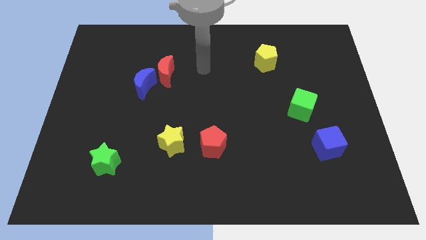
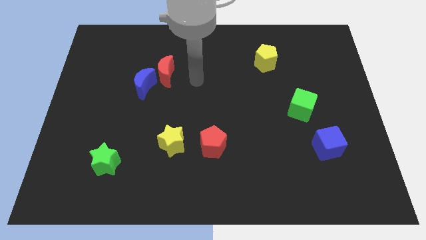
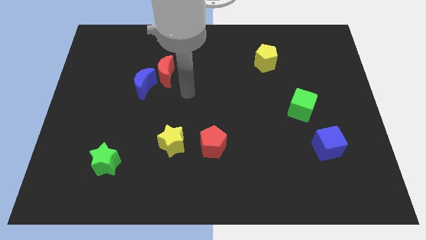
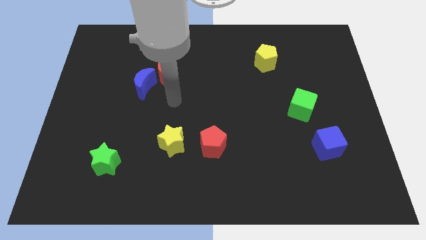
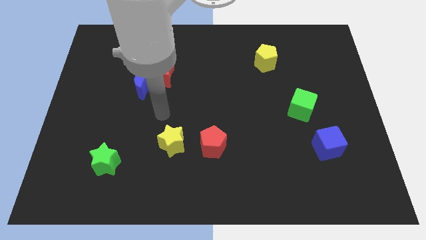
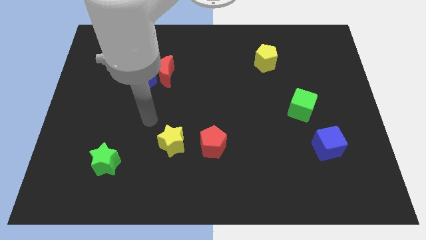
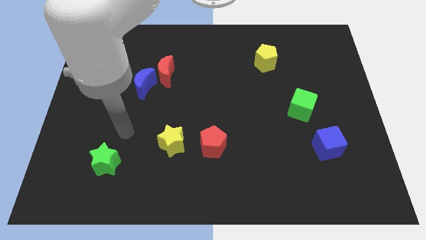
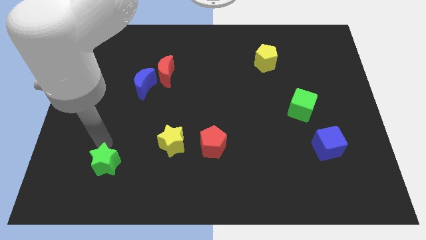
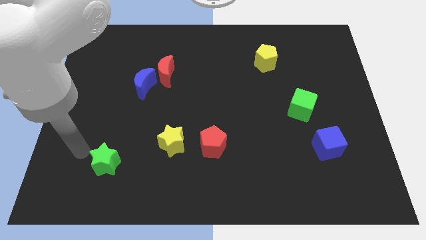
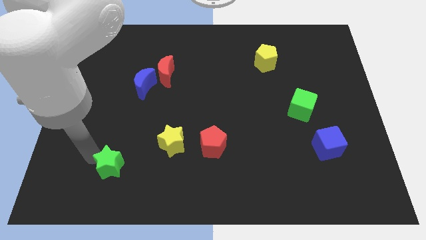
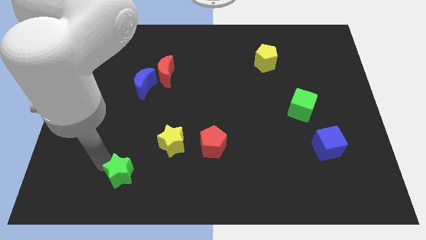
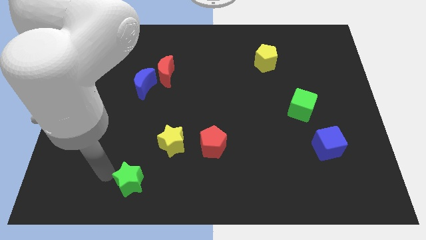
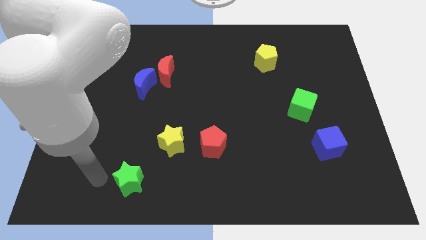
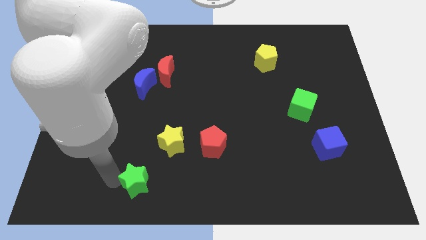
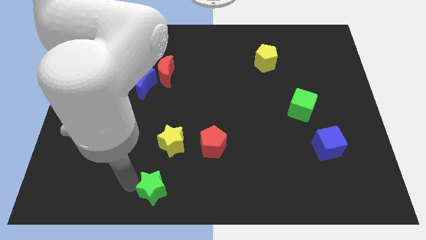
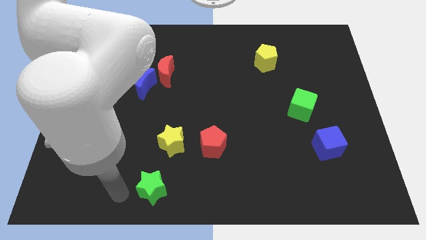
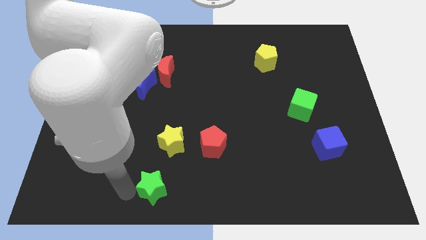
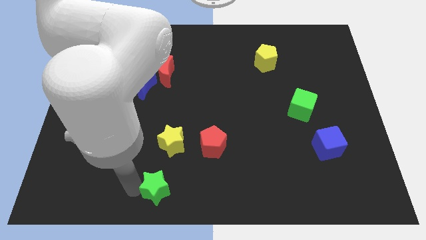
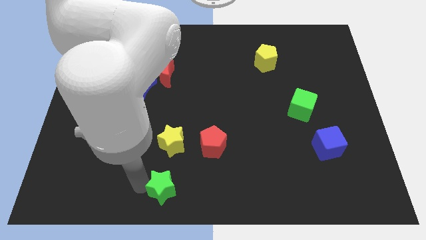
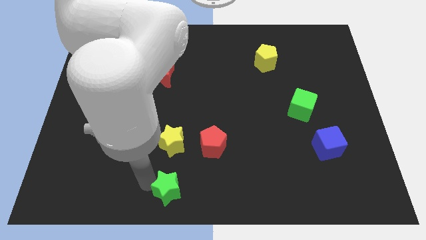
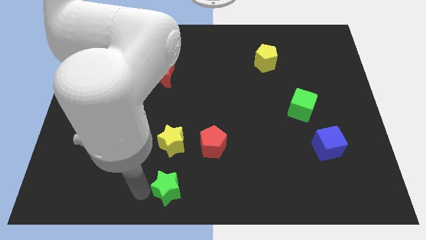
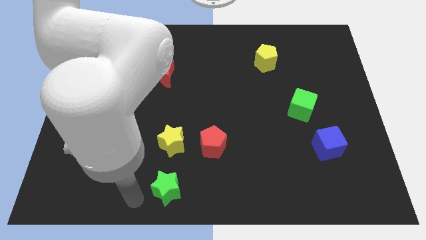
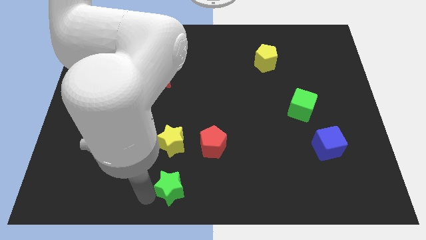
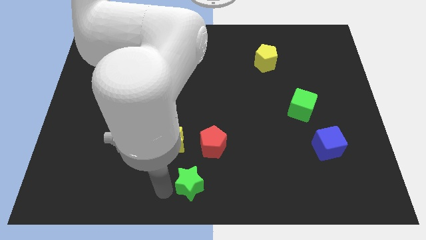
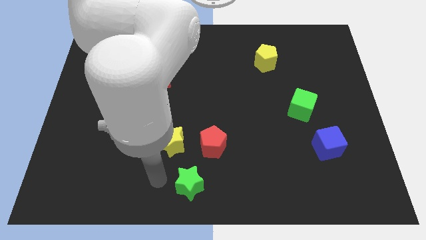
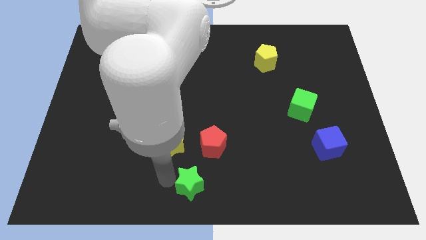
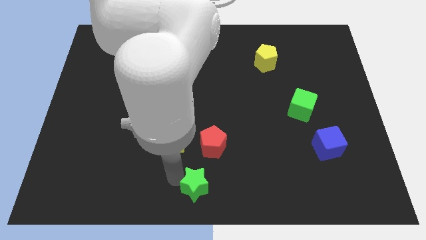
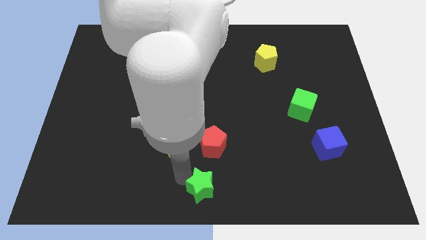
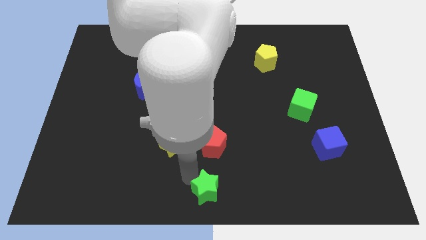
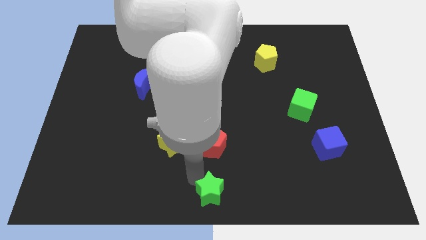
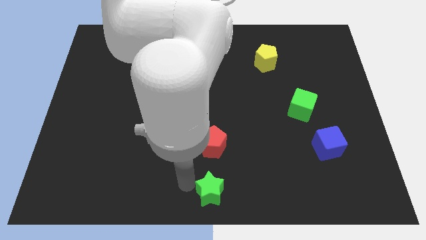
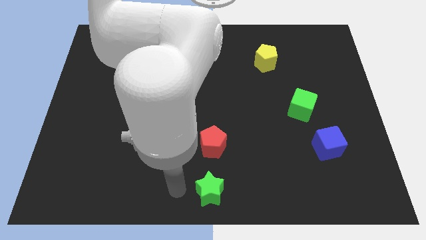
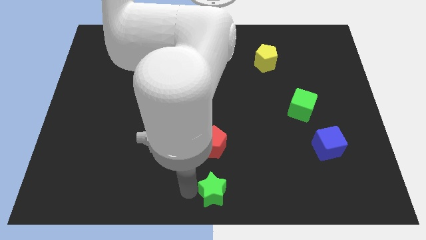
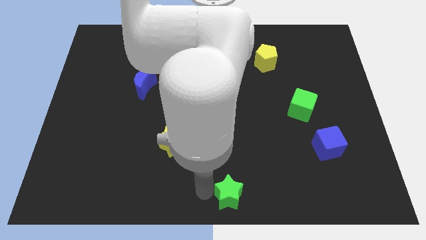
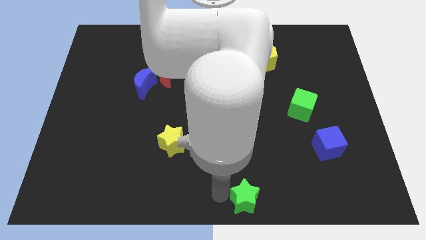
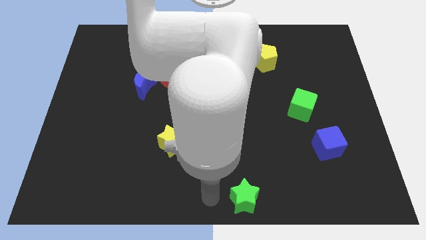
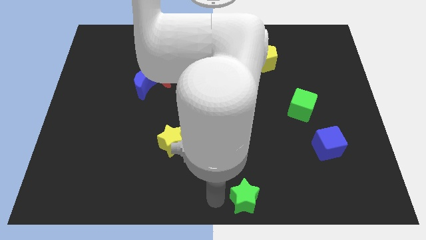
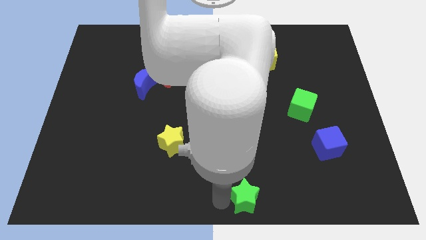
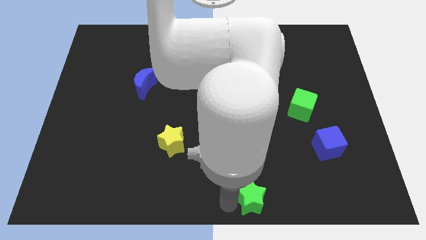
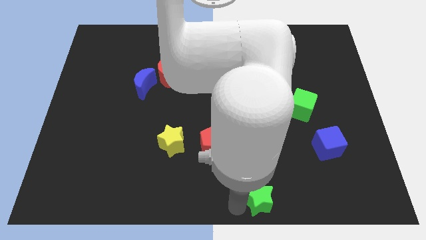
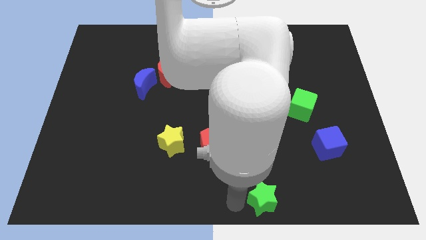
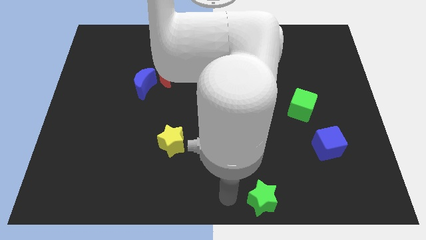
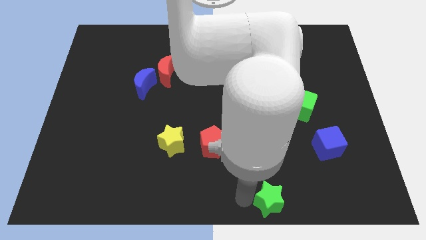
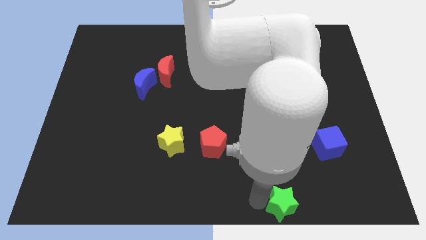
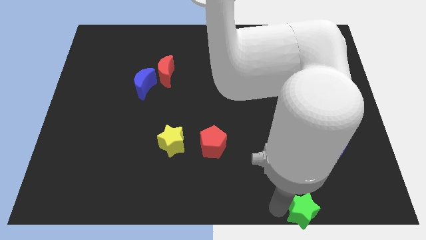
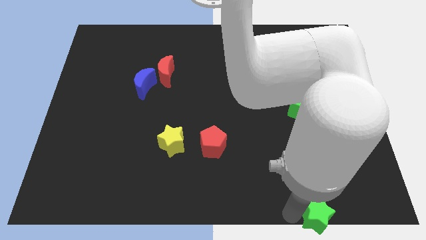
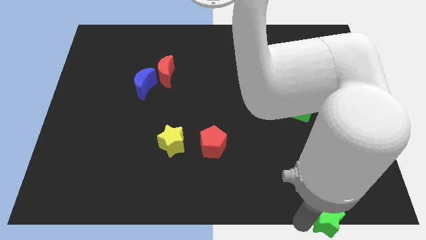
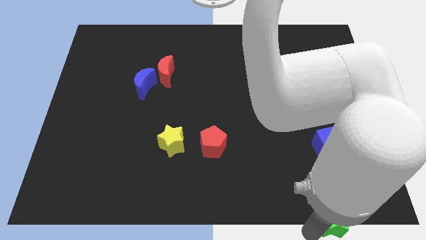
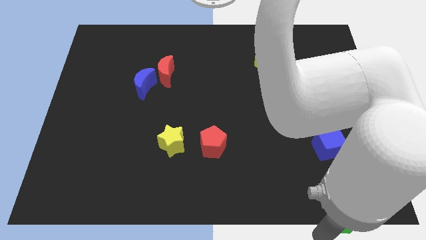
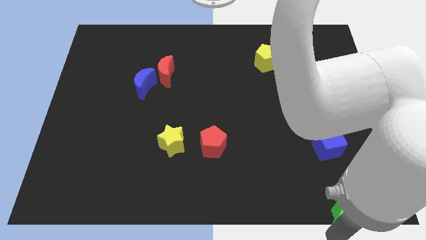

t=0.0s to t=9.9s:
put the green star to the bottom right corner

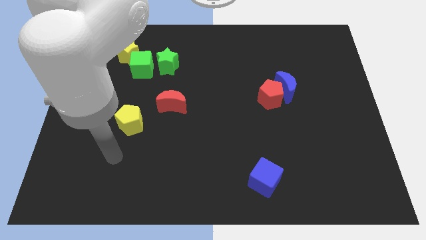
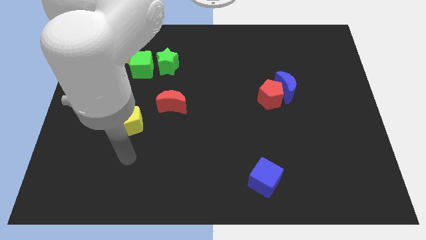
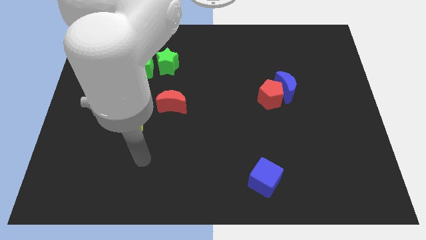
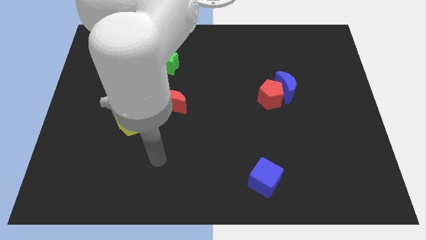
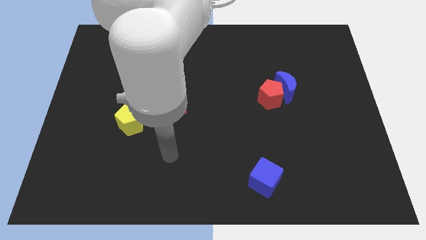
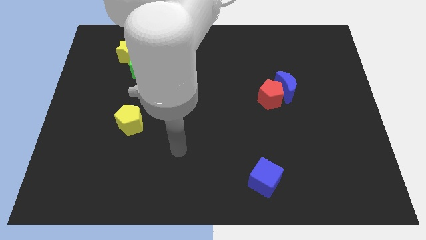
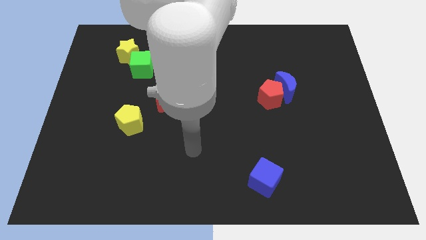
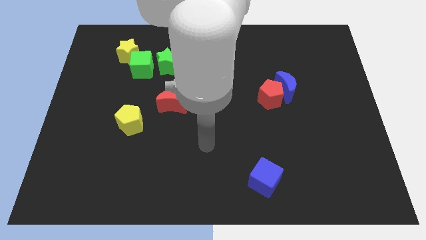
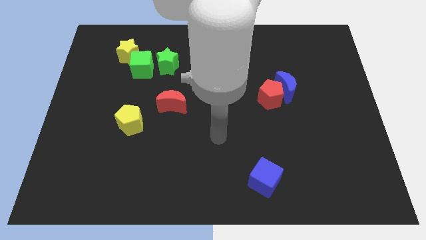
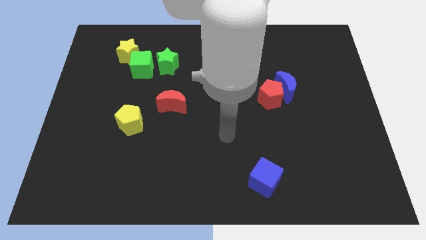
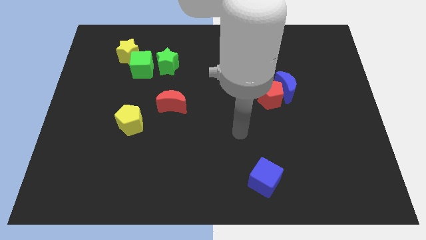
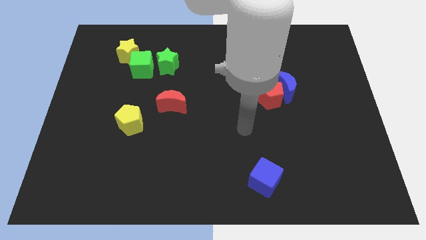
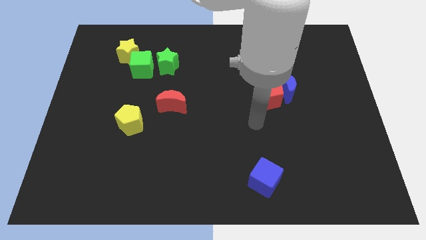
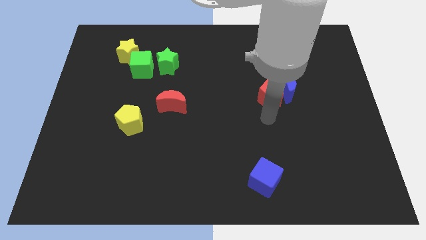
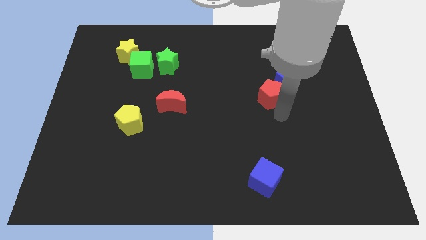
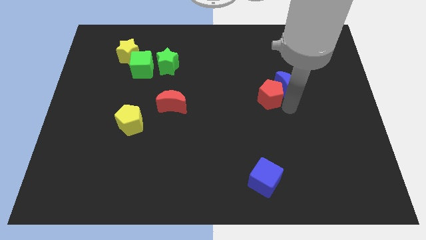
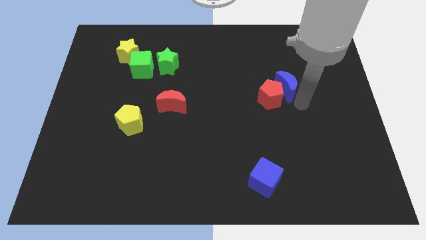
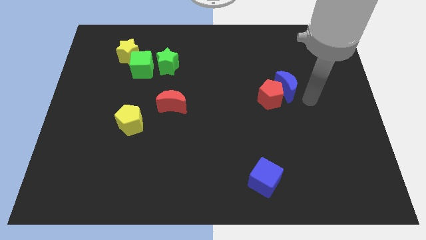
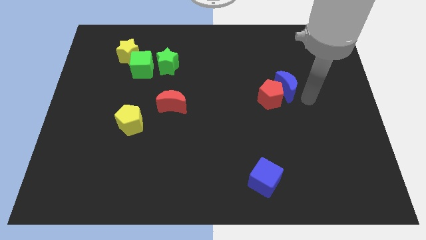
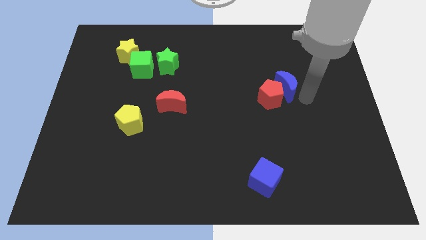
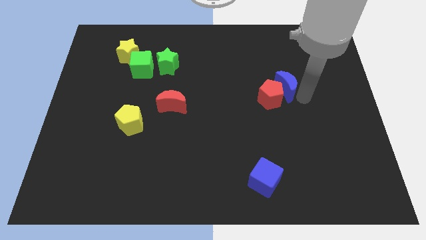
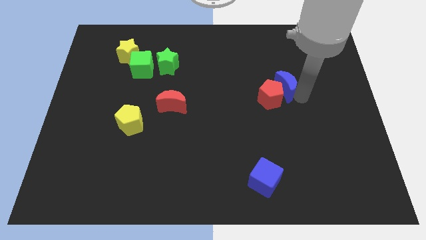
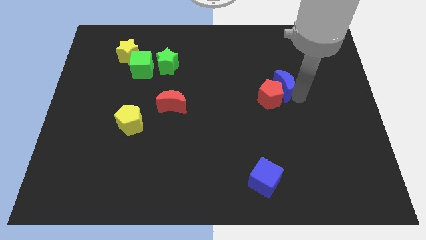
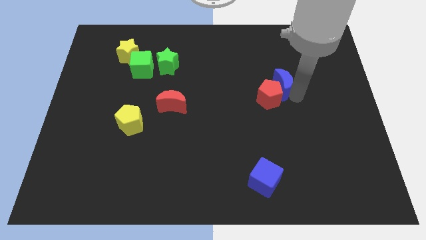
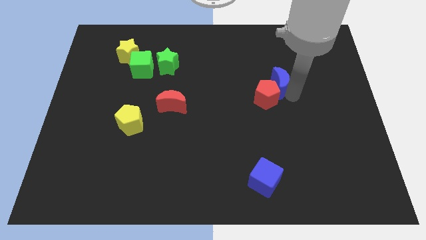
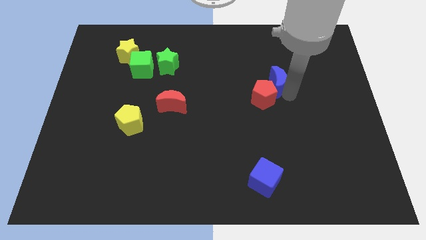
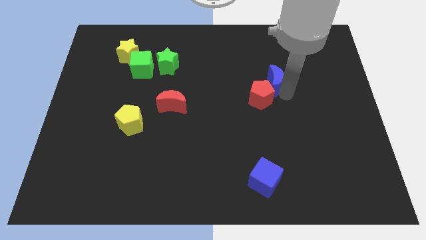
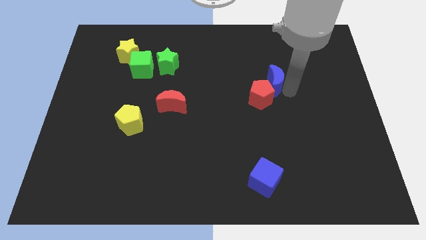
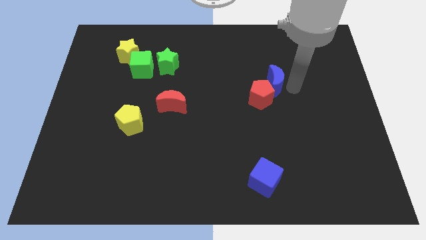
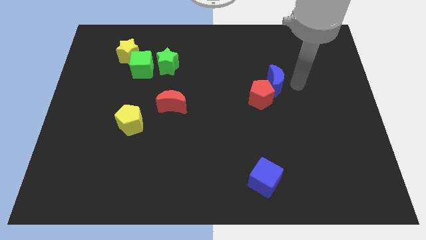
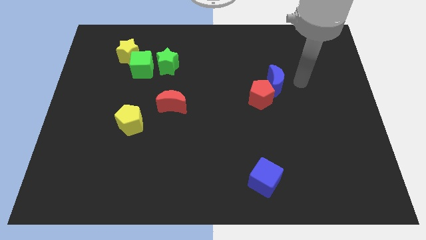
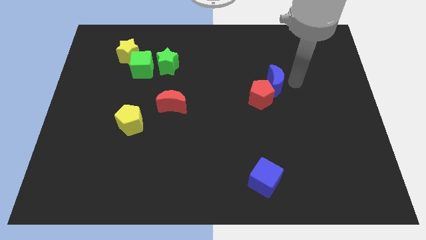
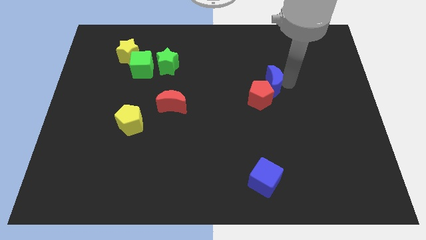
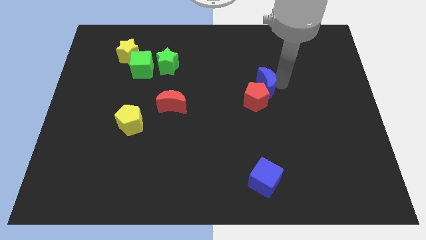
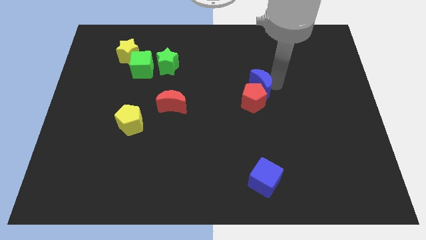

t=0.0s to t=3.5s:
push the blue moon to the middle of the board
